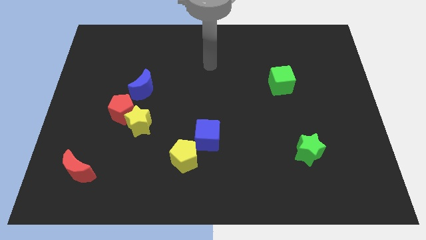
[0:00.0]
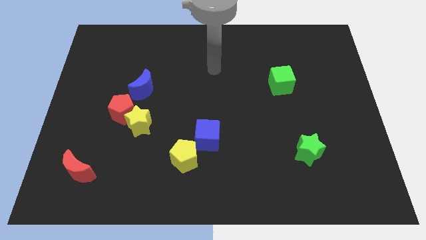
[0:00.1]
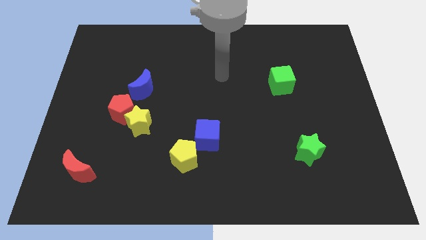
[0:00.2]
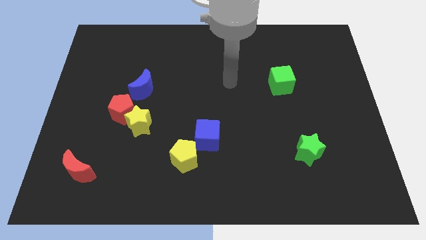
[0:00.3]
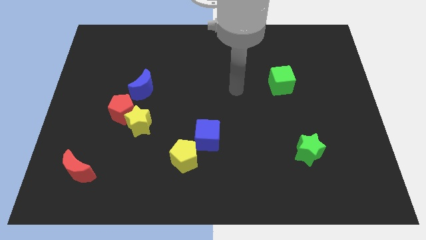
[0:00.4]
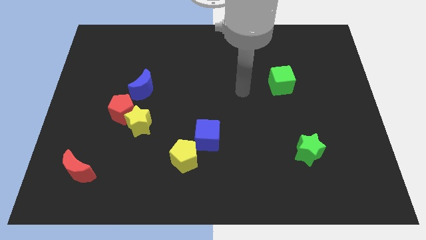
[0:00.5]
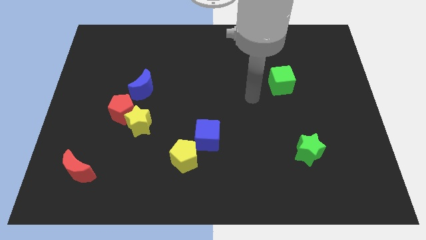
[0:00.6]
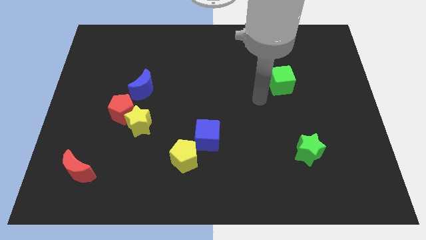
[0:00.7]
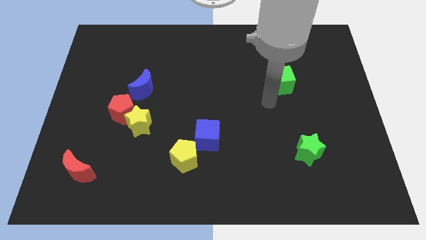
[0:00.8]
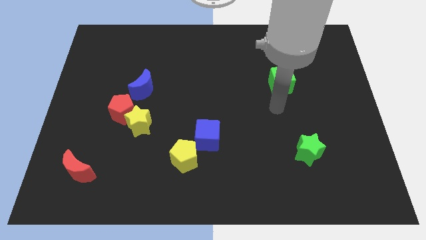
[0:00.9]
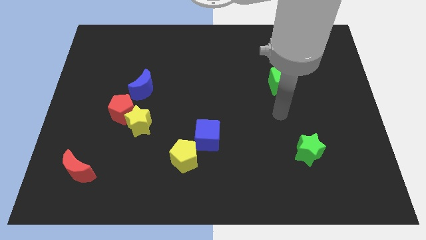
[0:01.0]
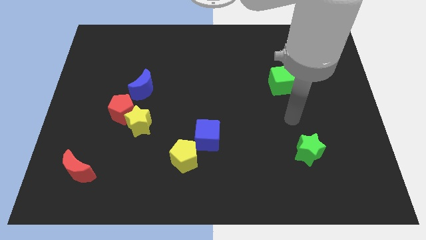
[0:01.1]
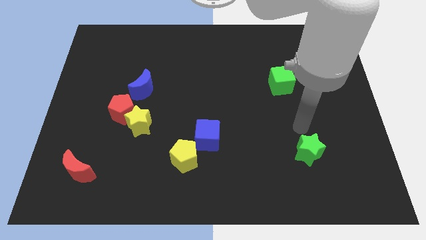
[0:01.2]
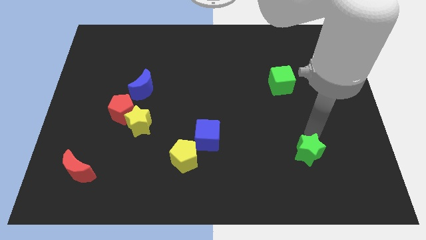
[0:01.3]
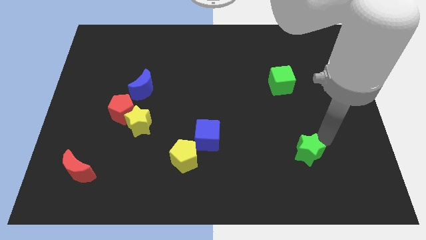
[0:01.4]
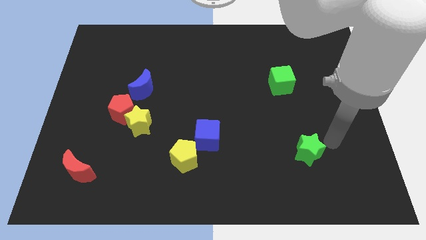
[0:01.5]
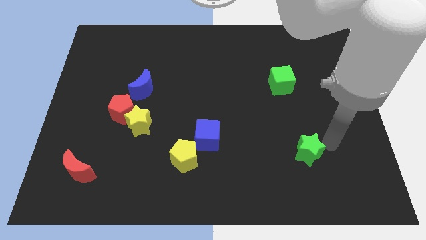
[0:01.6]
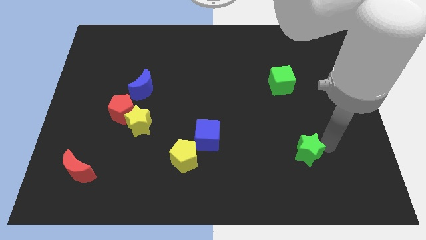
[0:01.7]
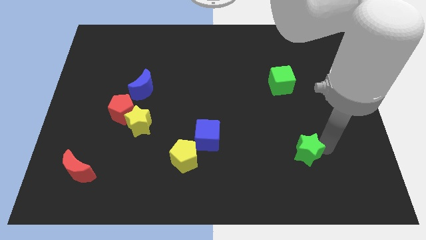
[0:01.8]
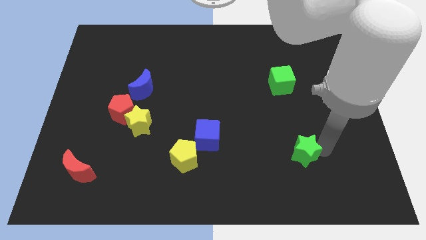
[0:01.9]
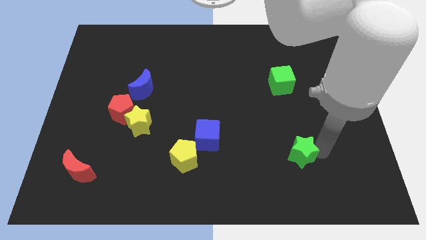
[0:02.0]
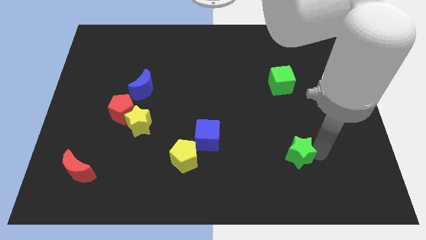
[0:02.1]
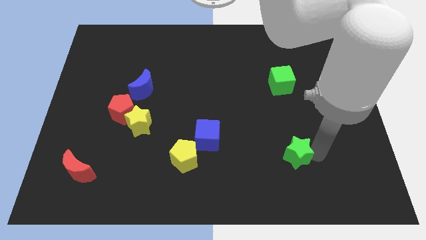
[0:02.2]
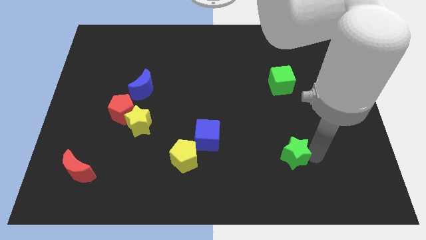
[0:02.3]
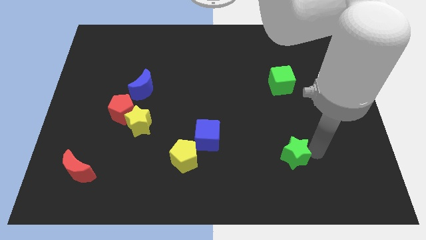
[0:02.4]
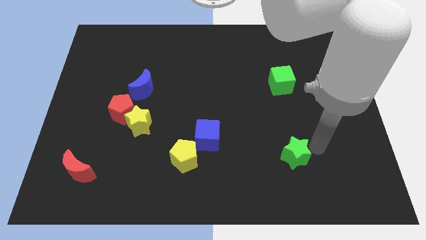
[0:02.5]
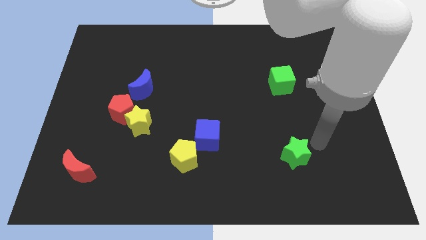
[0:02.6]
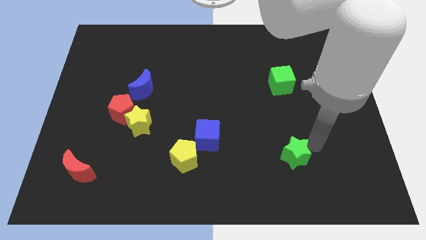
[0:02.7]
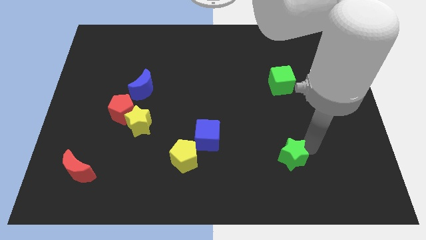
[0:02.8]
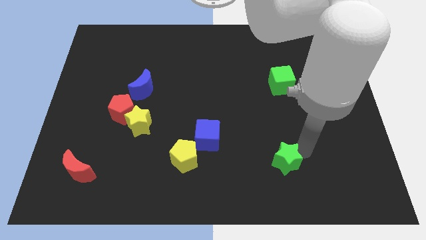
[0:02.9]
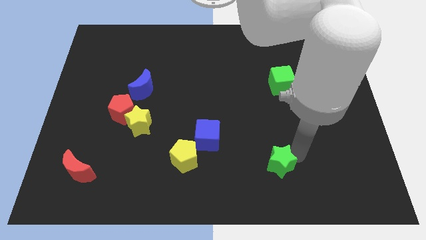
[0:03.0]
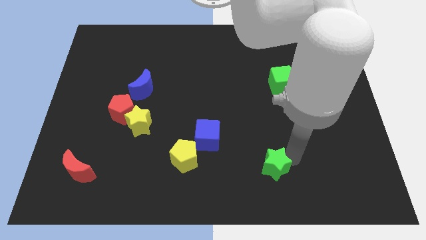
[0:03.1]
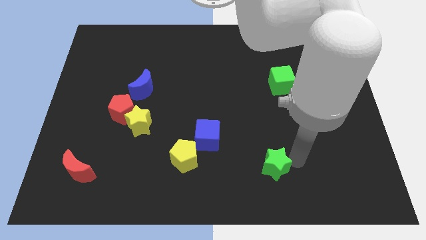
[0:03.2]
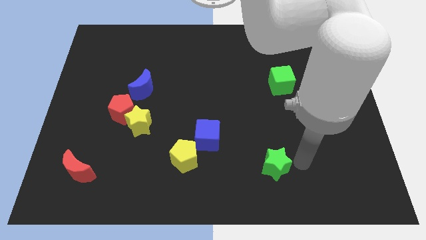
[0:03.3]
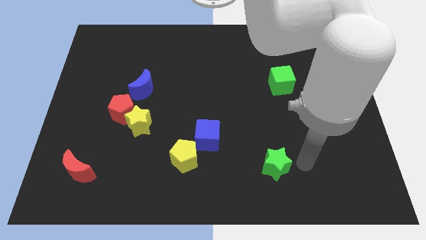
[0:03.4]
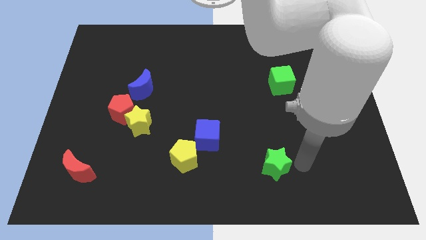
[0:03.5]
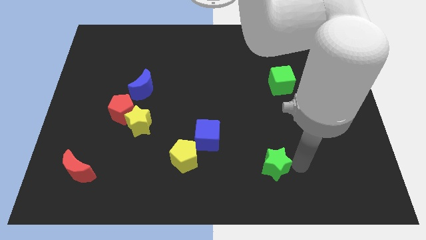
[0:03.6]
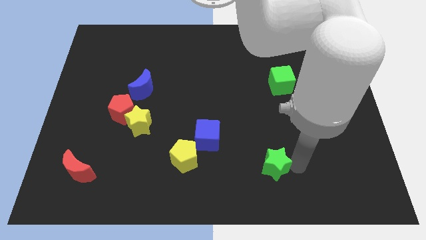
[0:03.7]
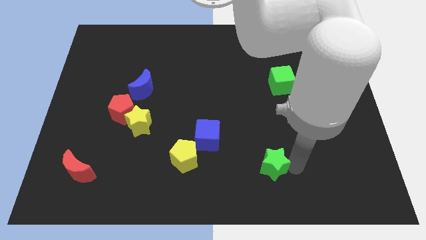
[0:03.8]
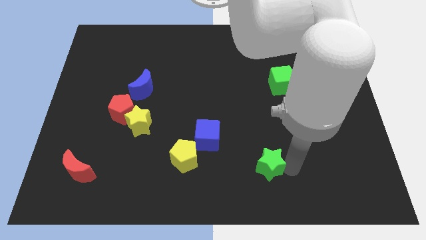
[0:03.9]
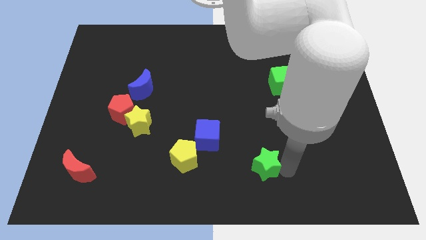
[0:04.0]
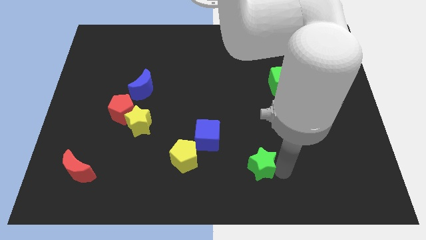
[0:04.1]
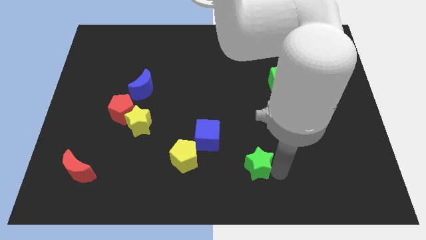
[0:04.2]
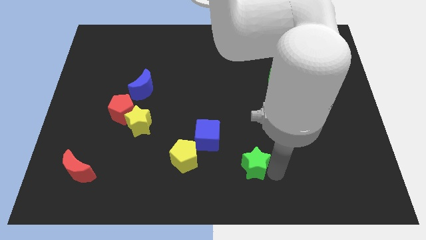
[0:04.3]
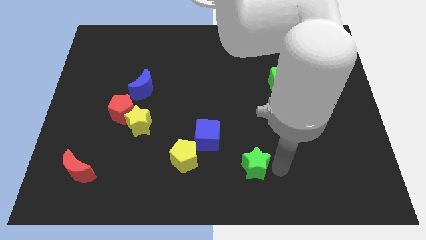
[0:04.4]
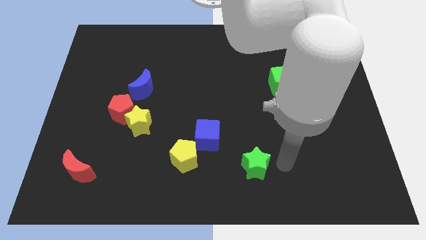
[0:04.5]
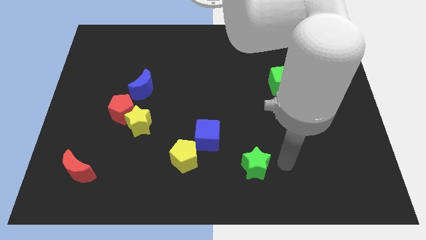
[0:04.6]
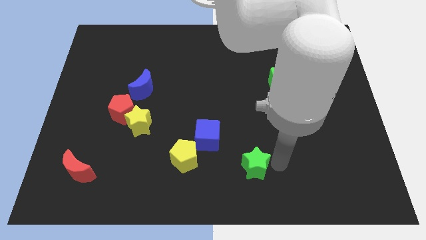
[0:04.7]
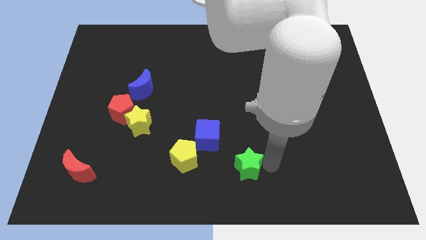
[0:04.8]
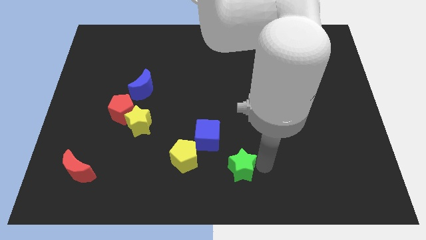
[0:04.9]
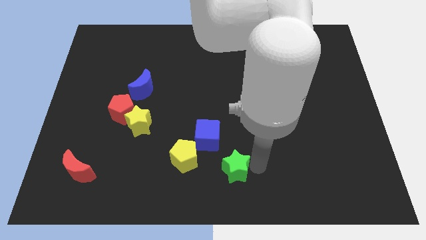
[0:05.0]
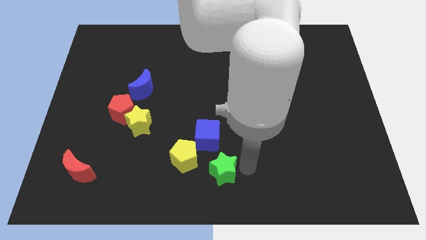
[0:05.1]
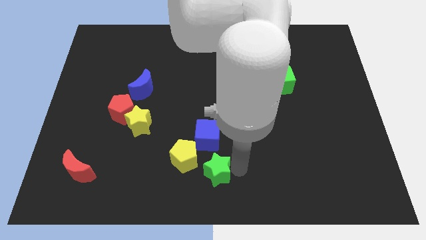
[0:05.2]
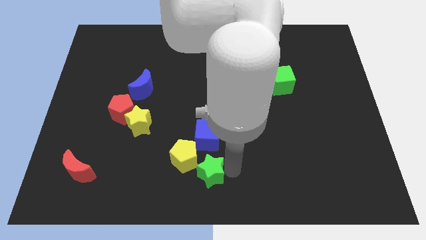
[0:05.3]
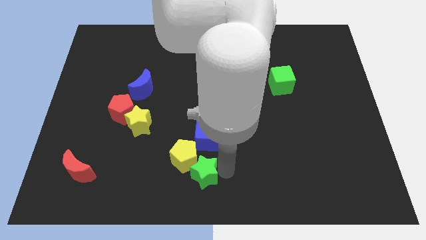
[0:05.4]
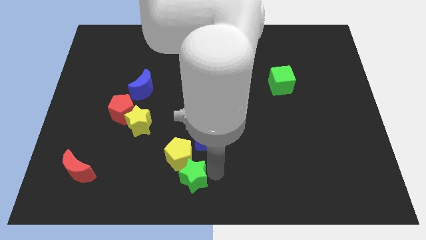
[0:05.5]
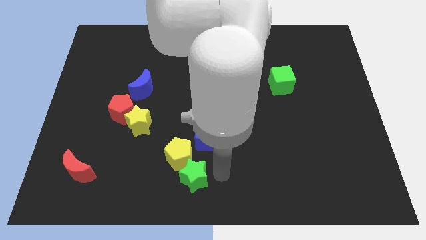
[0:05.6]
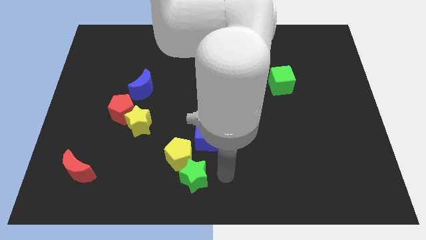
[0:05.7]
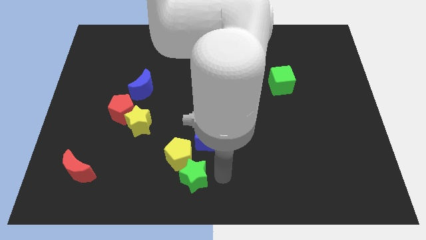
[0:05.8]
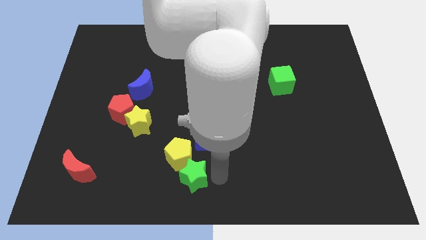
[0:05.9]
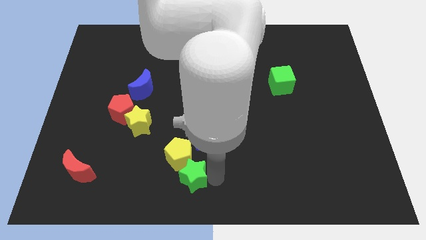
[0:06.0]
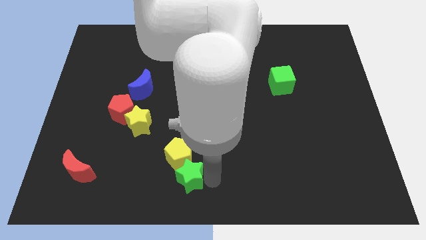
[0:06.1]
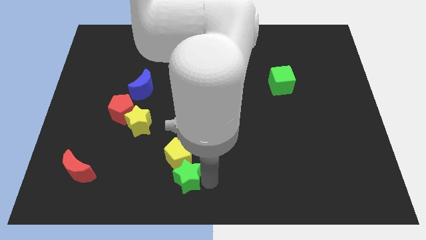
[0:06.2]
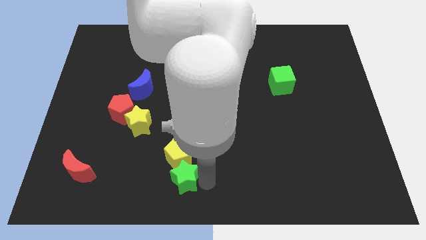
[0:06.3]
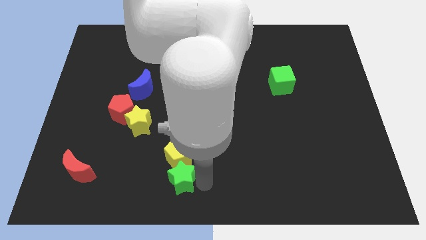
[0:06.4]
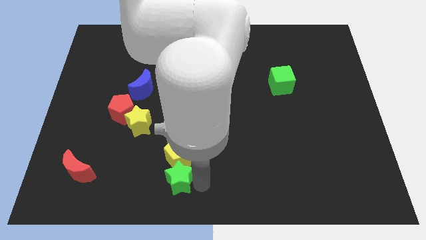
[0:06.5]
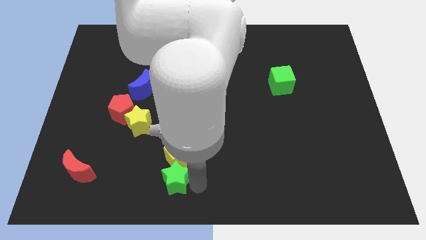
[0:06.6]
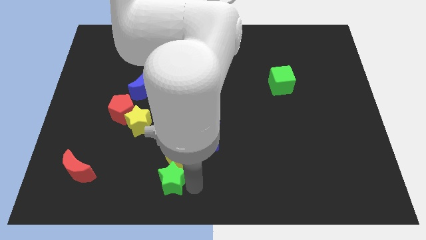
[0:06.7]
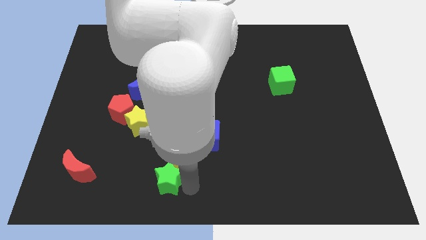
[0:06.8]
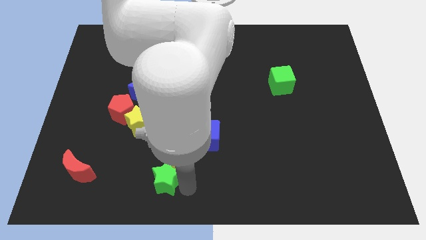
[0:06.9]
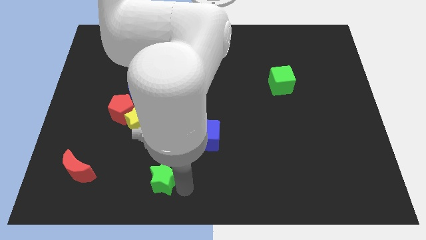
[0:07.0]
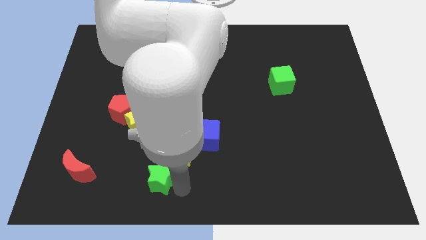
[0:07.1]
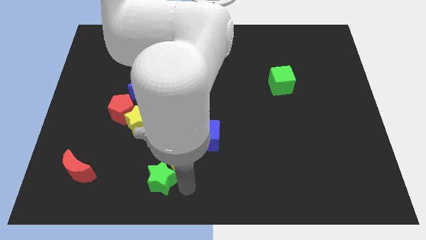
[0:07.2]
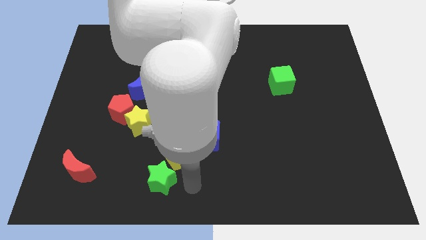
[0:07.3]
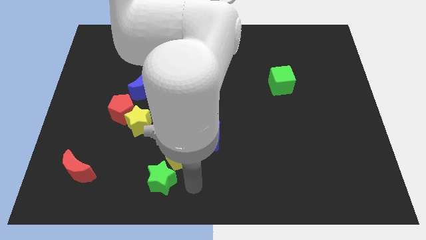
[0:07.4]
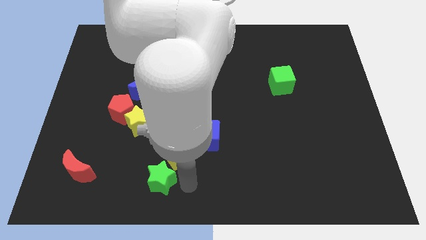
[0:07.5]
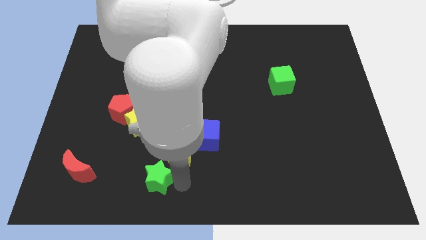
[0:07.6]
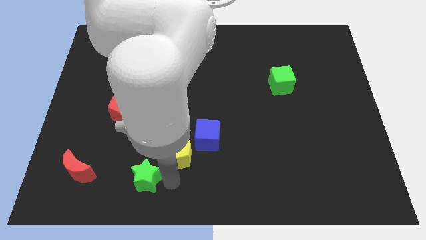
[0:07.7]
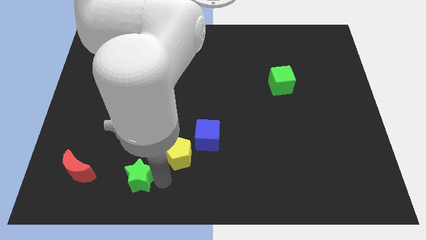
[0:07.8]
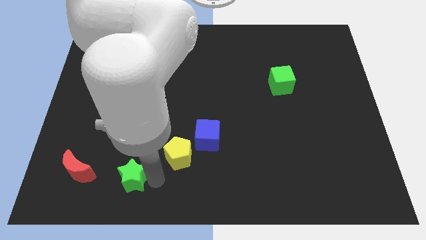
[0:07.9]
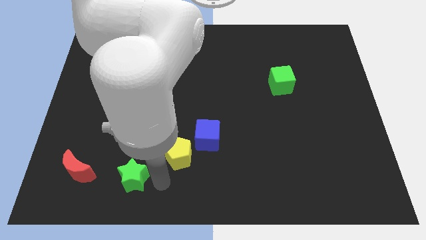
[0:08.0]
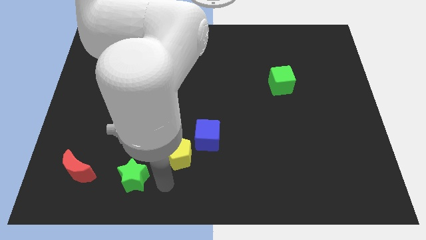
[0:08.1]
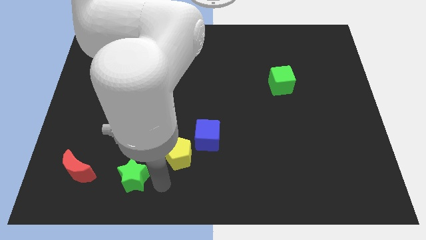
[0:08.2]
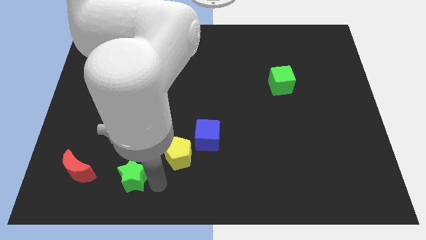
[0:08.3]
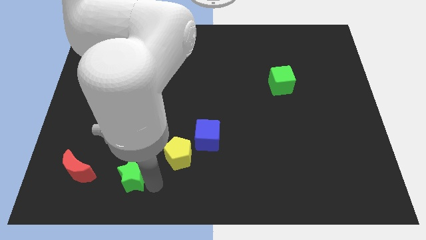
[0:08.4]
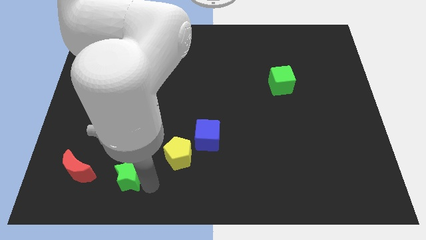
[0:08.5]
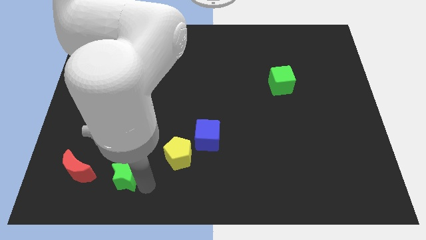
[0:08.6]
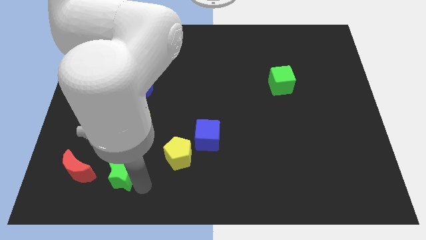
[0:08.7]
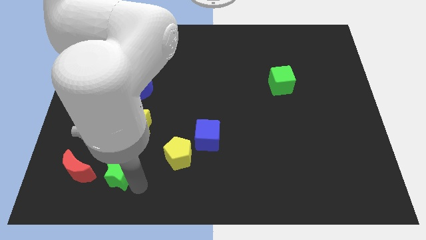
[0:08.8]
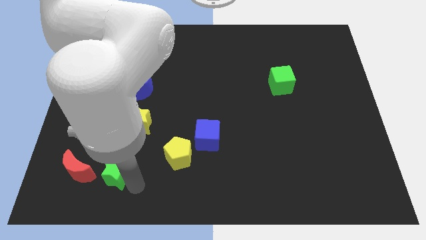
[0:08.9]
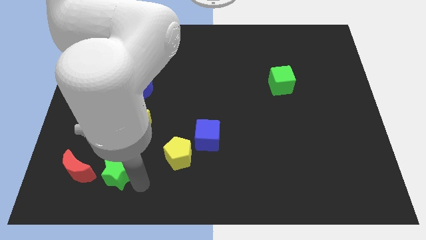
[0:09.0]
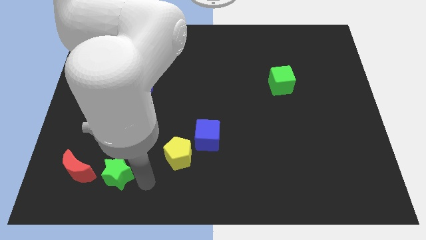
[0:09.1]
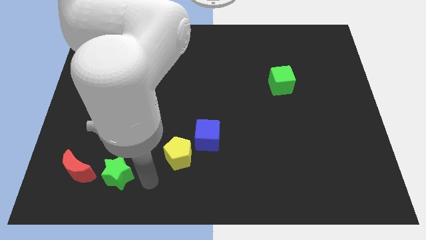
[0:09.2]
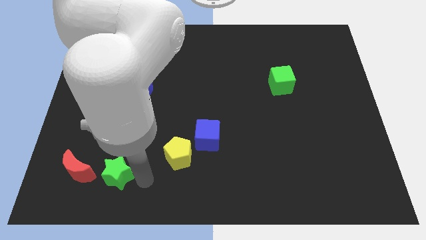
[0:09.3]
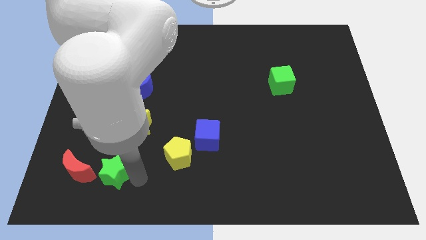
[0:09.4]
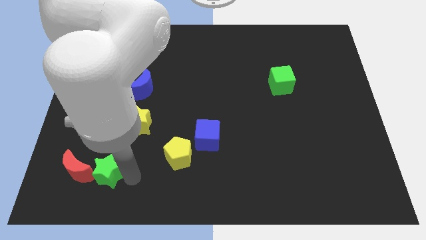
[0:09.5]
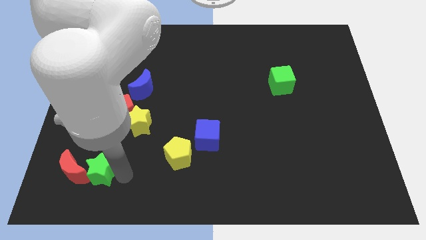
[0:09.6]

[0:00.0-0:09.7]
put the green star to the red moon
